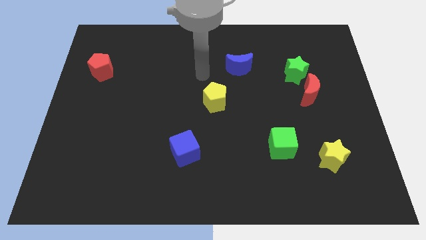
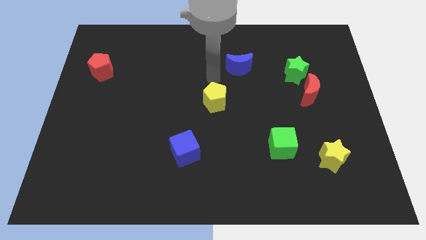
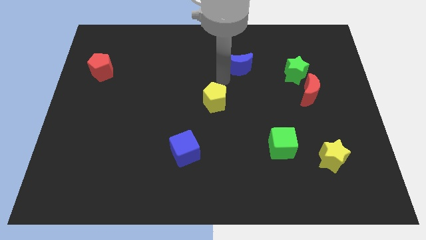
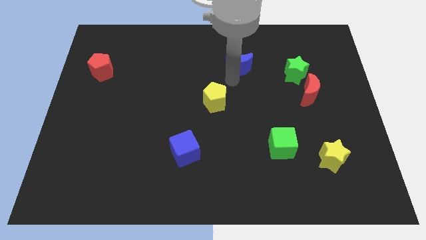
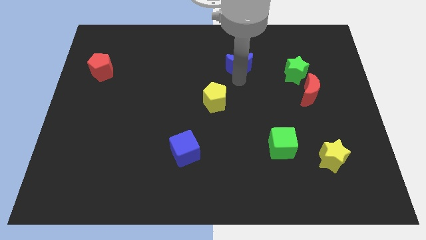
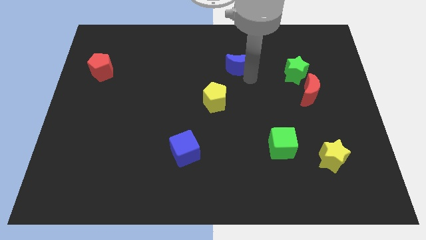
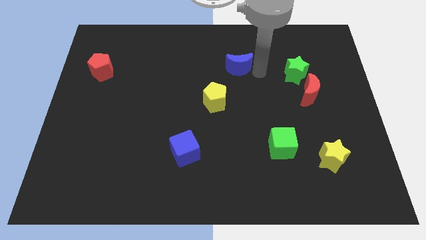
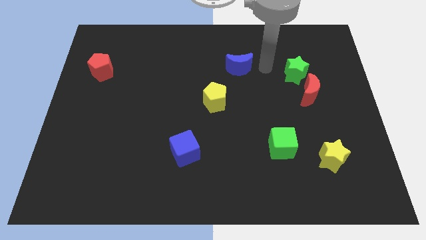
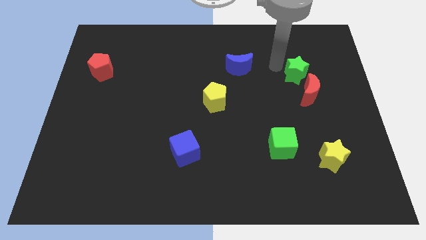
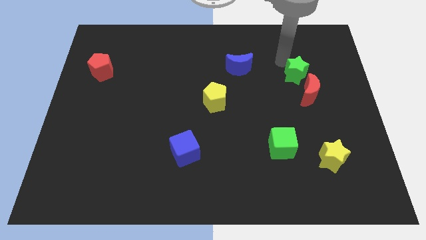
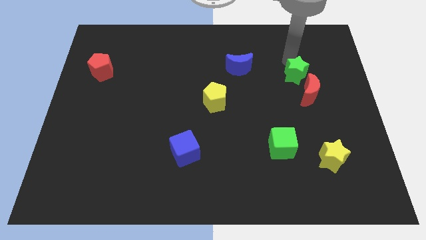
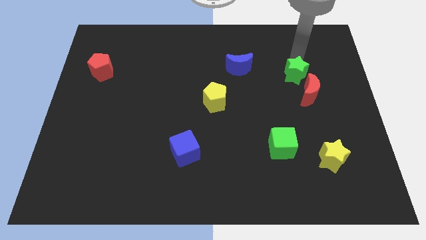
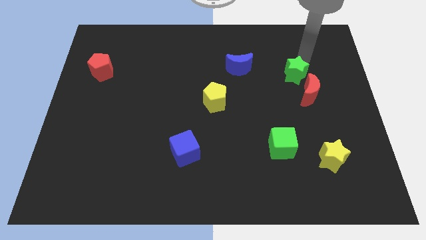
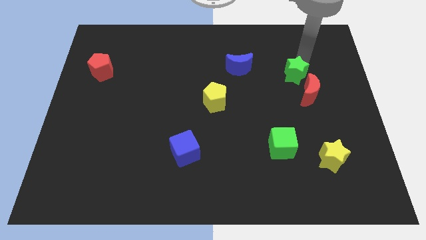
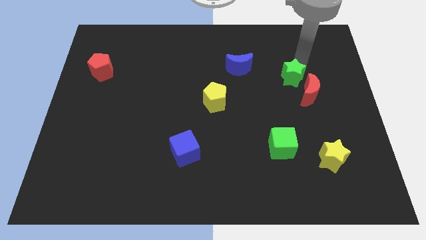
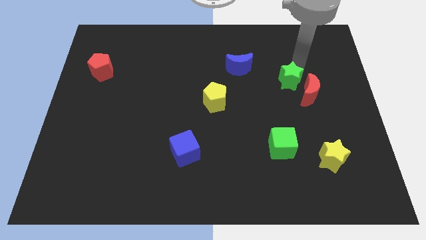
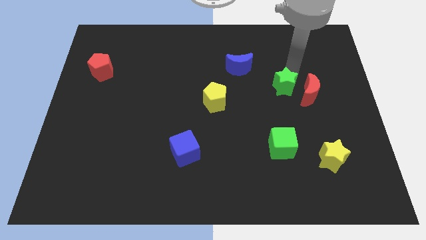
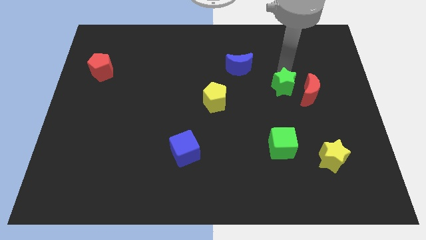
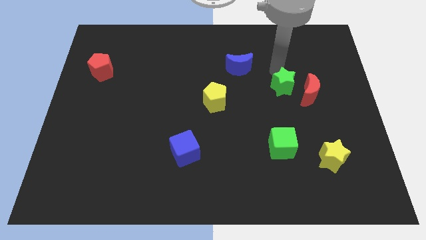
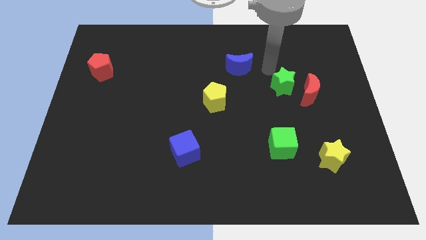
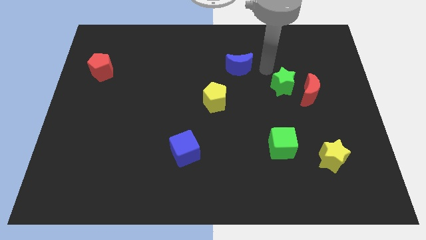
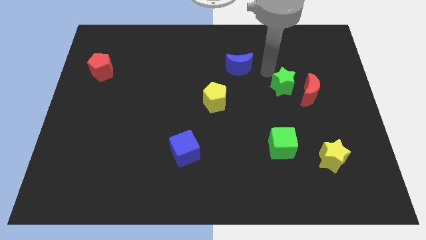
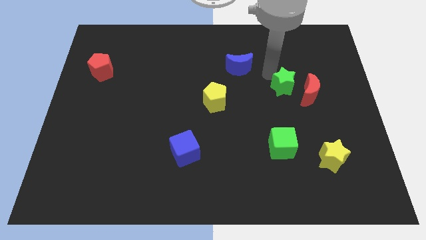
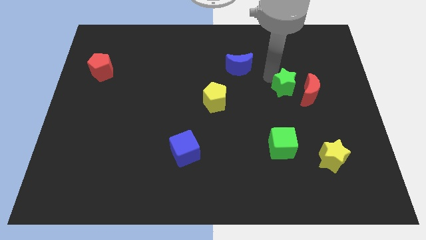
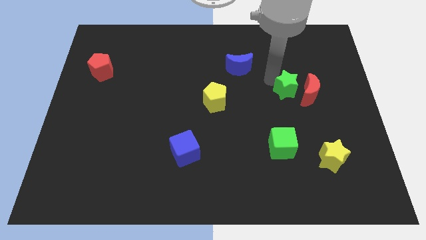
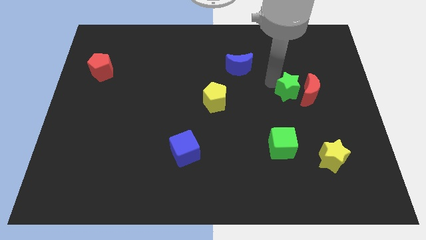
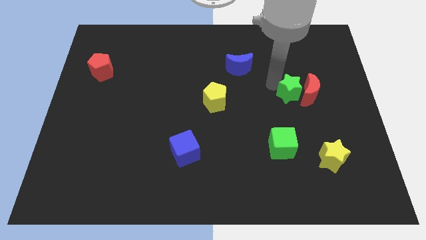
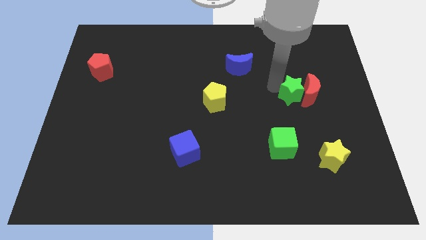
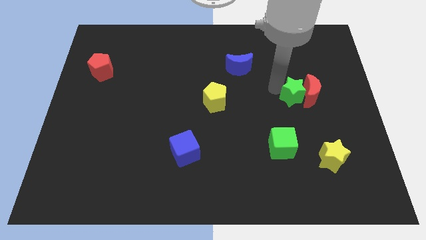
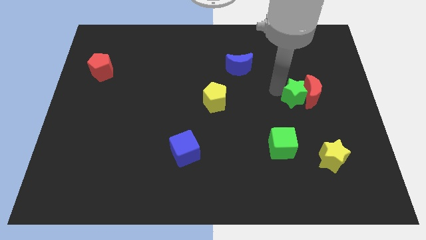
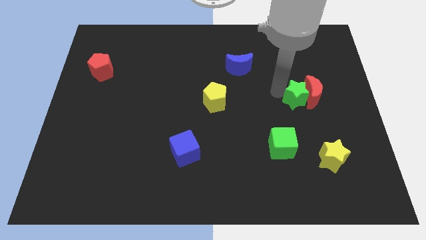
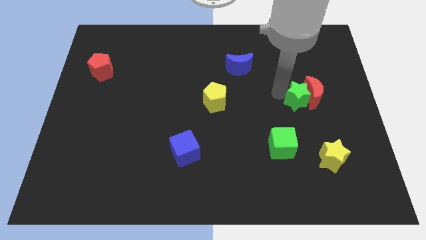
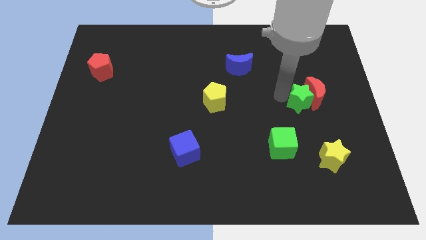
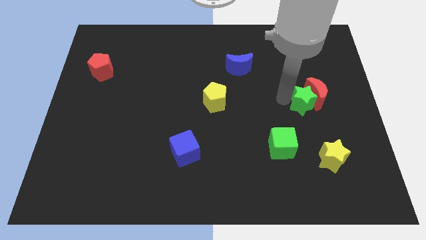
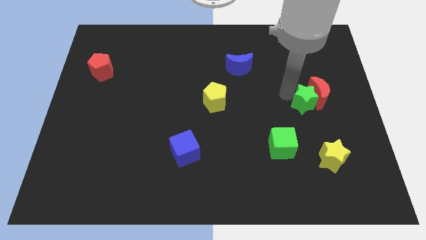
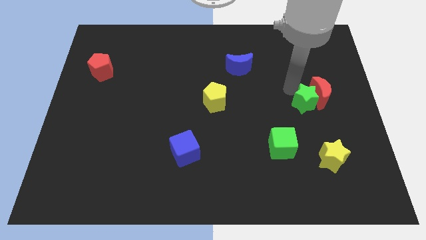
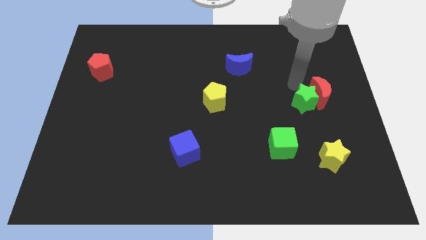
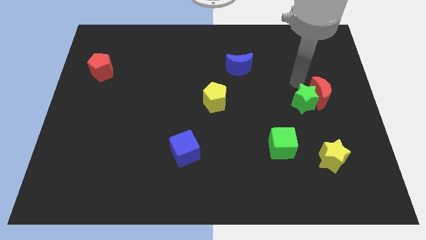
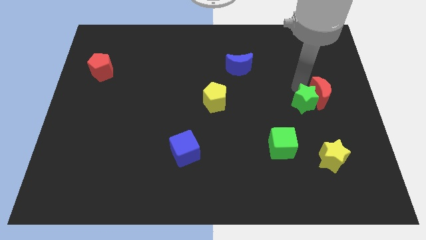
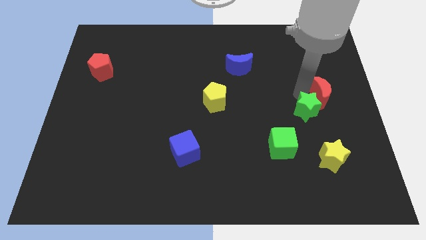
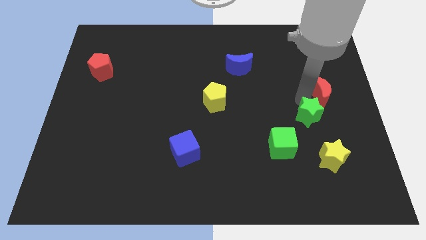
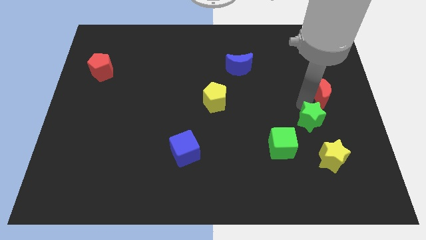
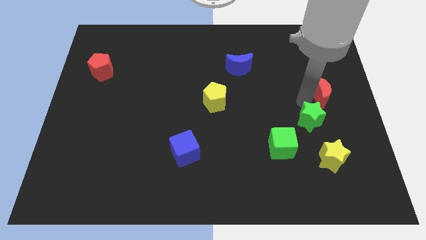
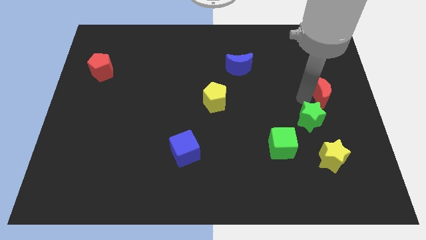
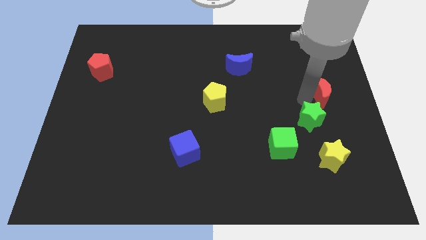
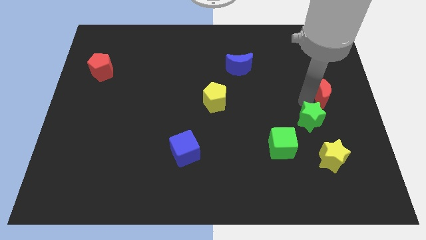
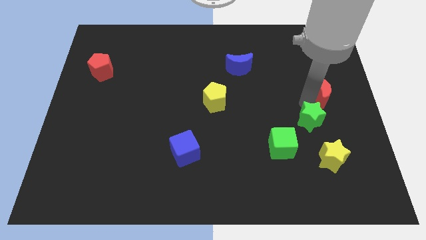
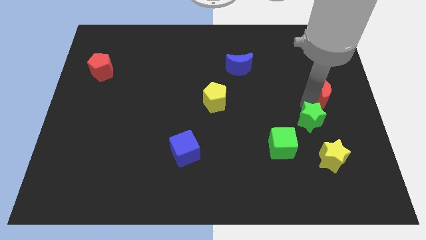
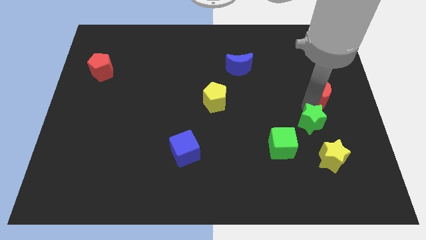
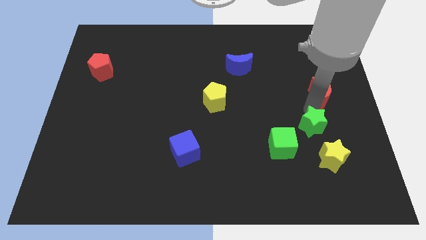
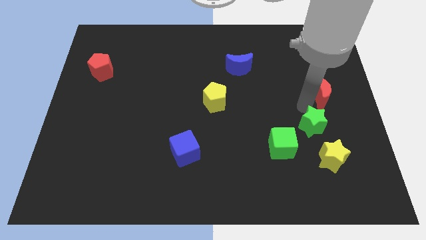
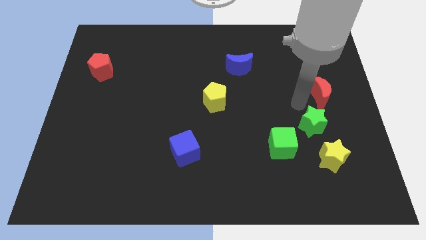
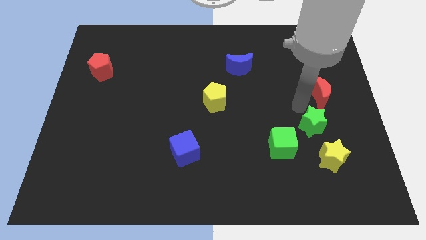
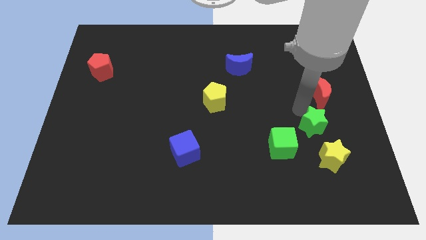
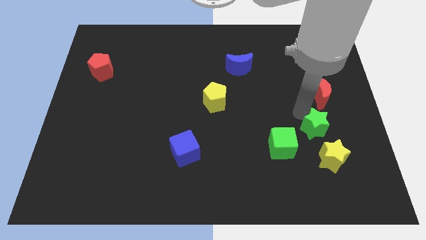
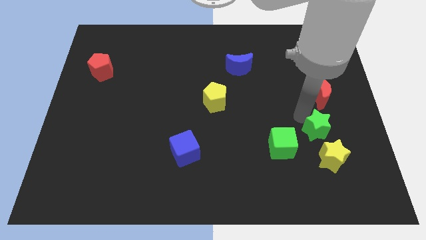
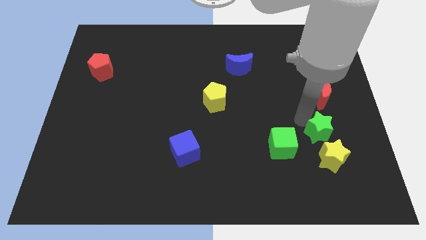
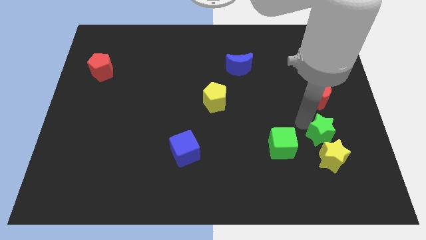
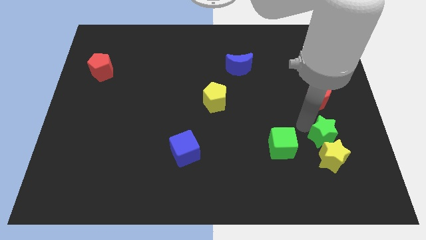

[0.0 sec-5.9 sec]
push the green star next to the yellow star

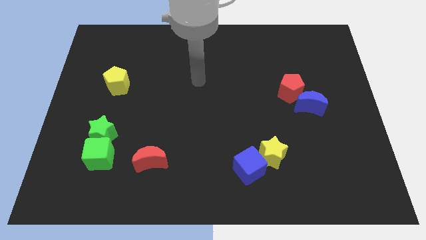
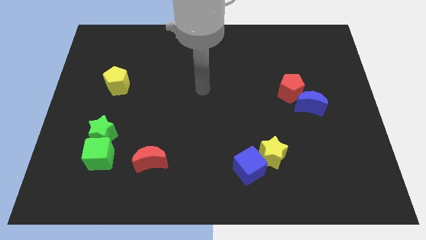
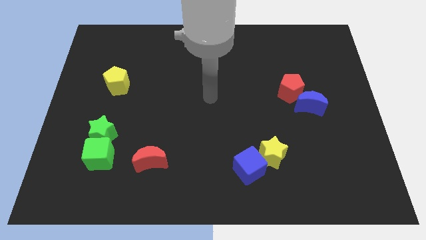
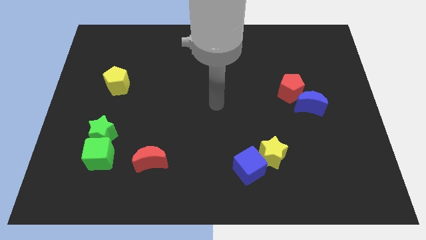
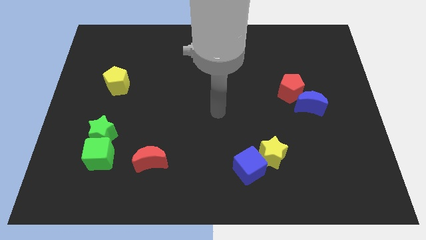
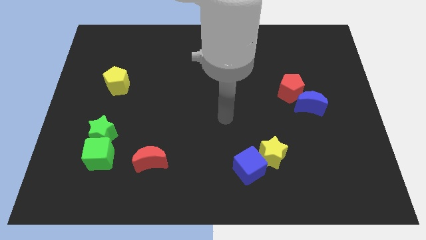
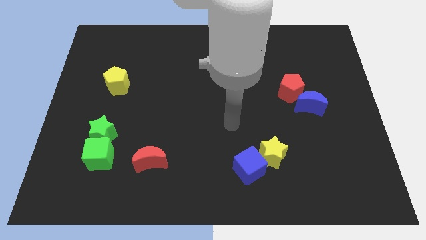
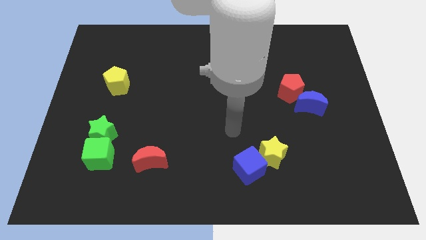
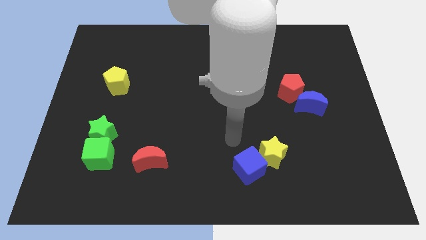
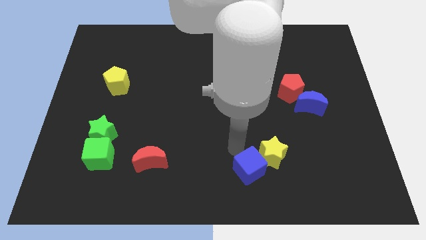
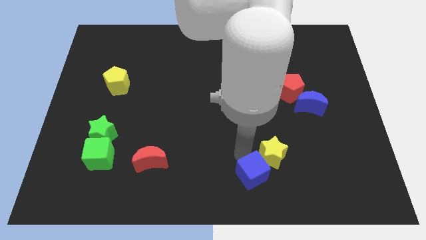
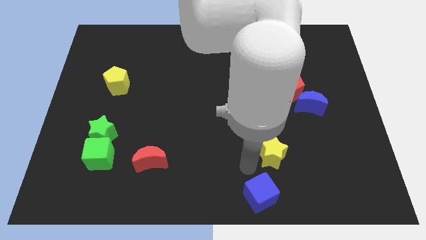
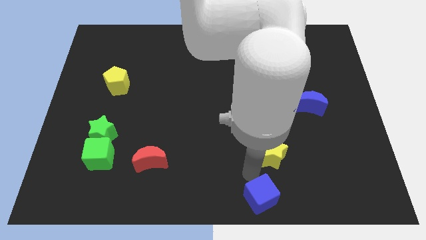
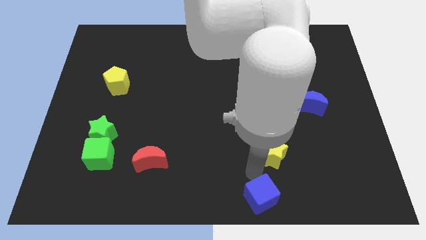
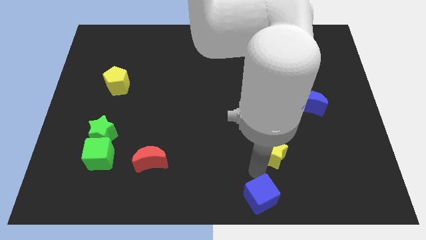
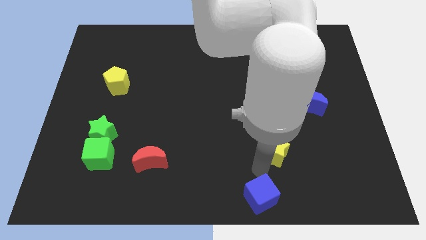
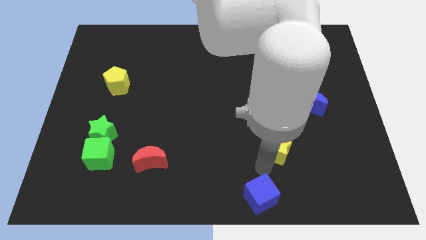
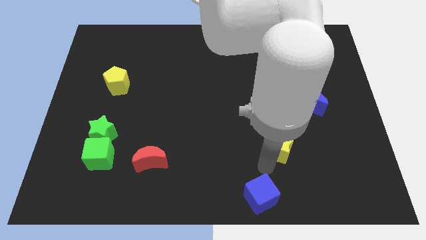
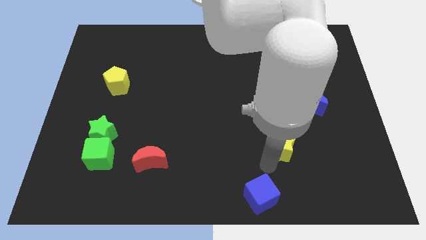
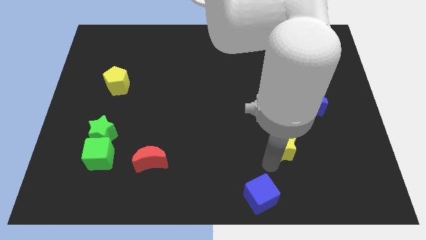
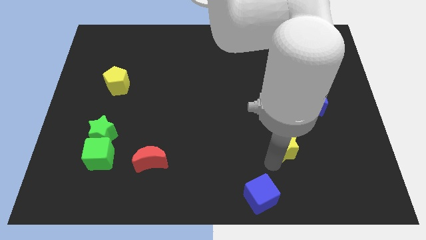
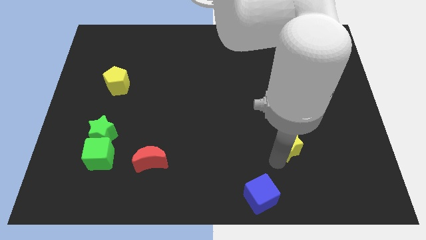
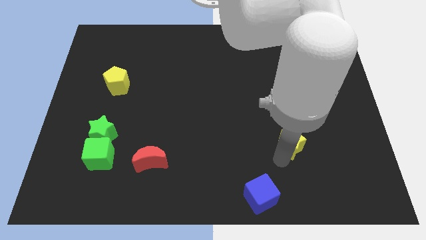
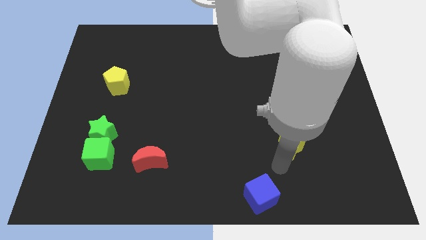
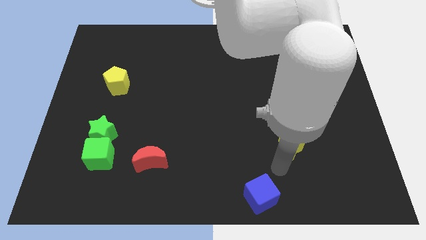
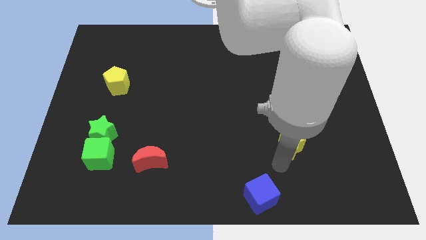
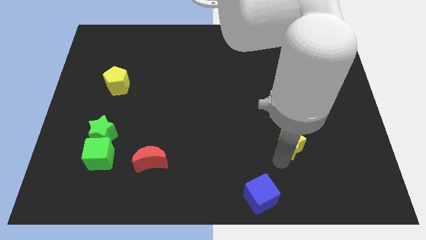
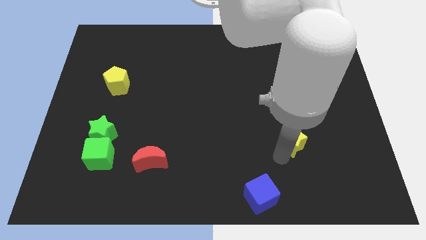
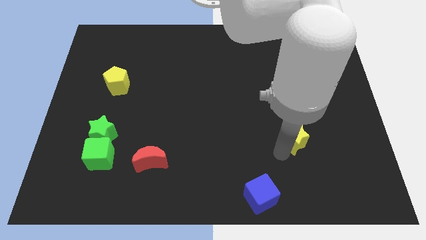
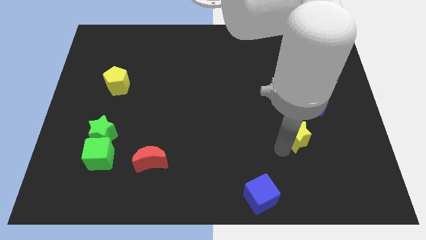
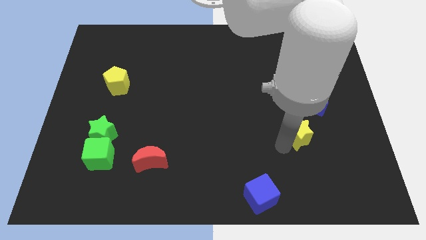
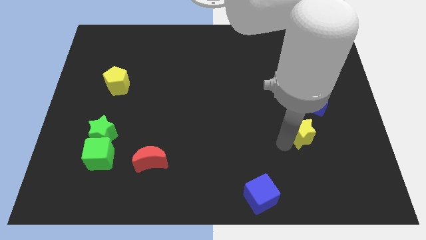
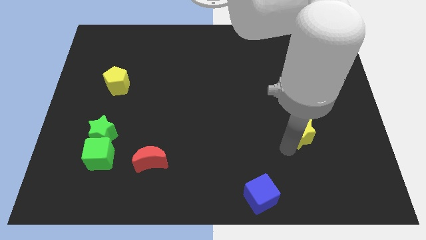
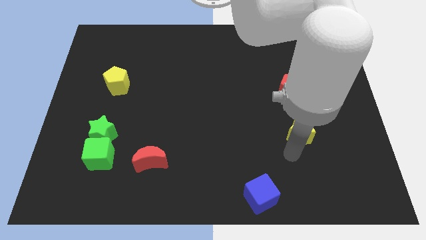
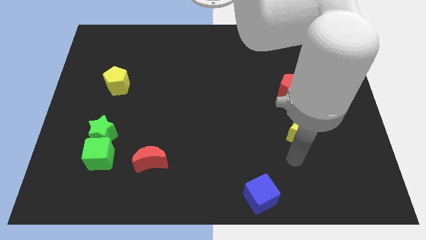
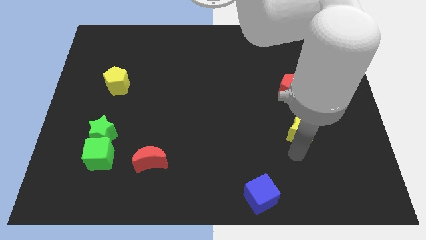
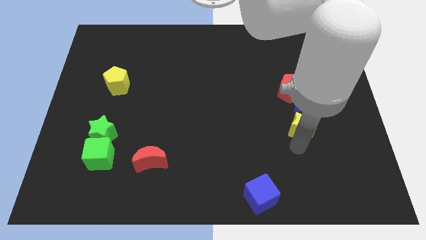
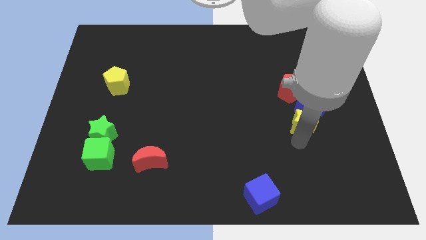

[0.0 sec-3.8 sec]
slide the yellow star to the blue moon
